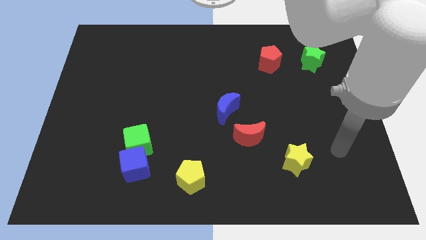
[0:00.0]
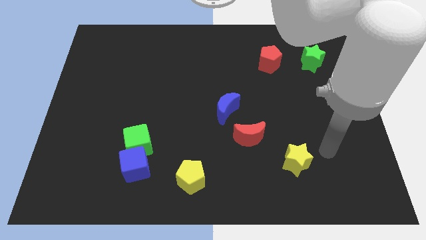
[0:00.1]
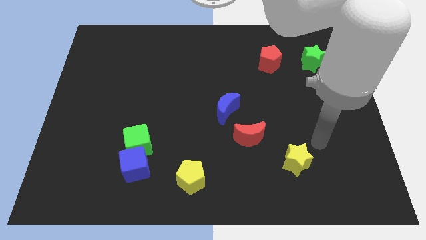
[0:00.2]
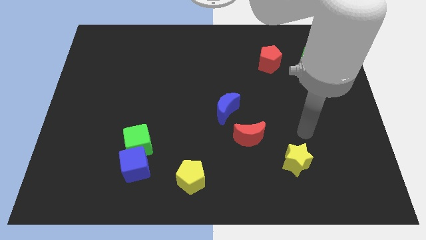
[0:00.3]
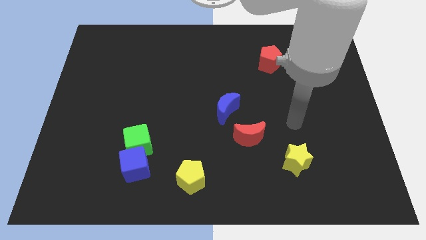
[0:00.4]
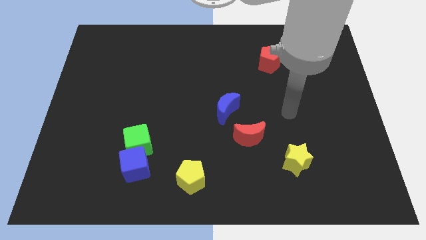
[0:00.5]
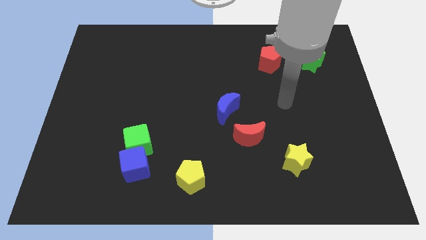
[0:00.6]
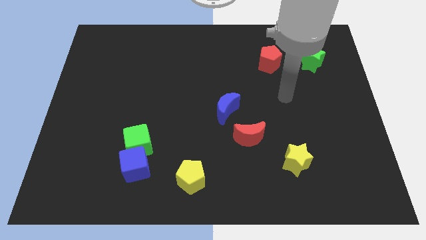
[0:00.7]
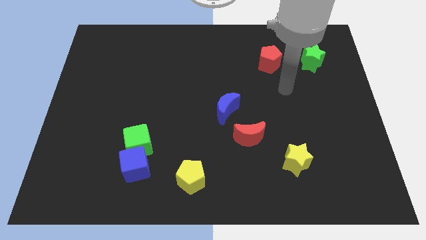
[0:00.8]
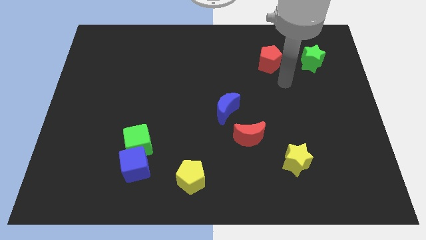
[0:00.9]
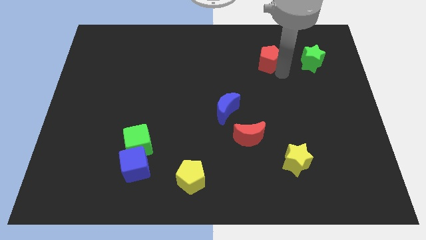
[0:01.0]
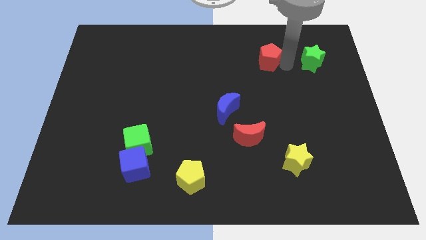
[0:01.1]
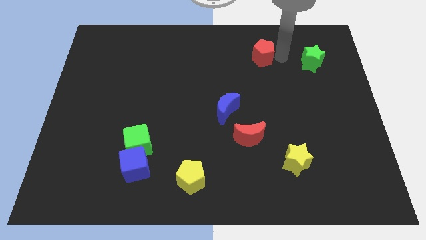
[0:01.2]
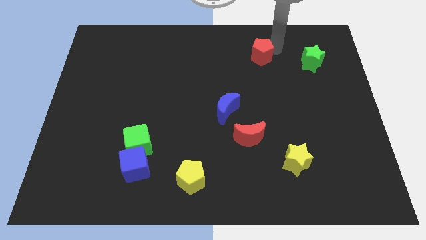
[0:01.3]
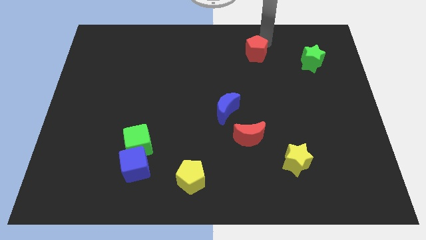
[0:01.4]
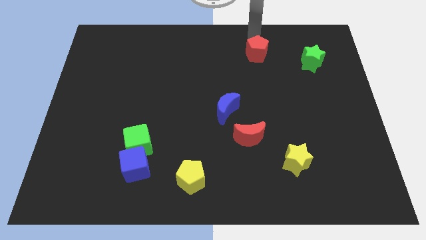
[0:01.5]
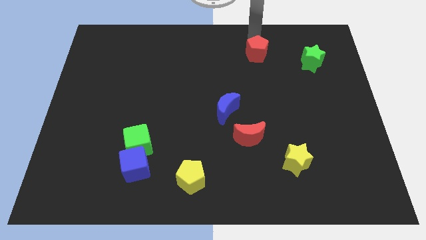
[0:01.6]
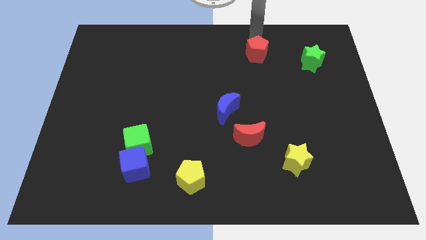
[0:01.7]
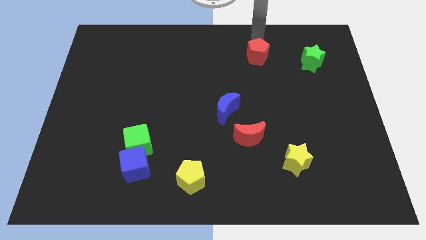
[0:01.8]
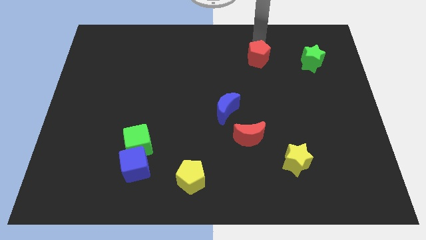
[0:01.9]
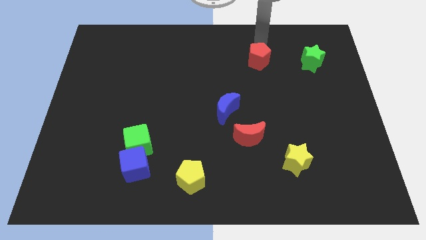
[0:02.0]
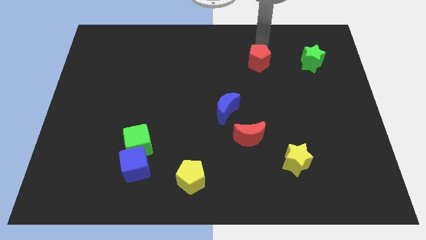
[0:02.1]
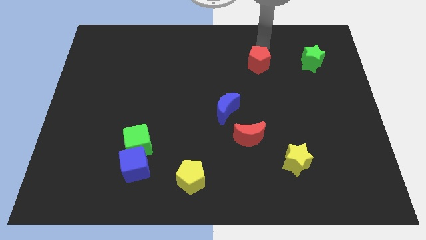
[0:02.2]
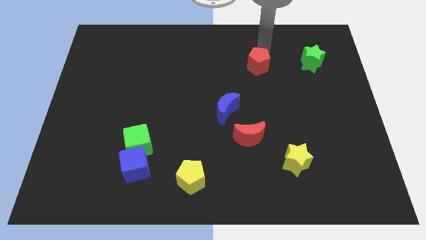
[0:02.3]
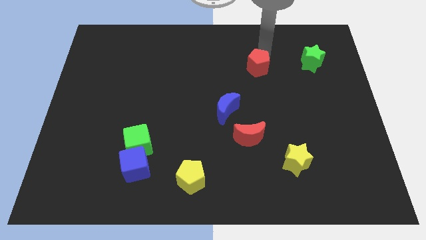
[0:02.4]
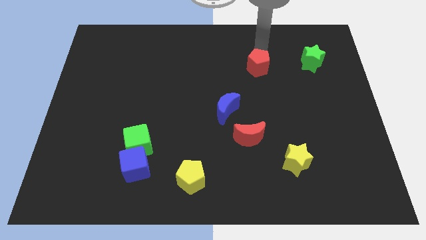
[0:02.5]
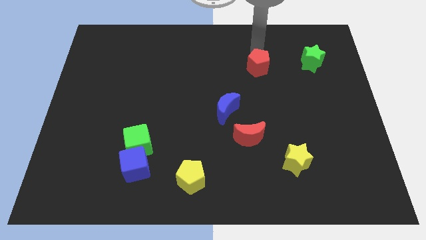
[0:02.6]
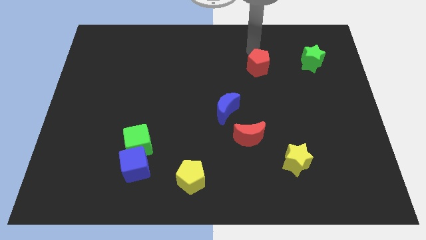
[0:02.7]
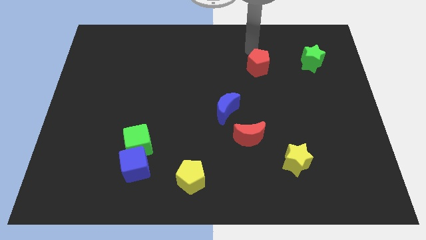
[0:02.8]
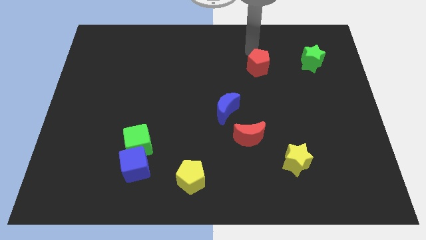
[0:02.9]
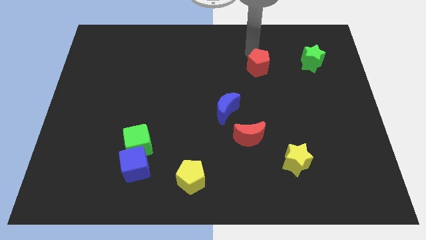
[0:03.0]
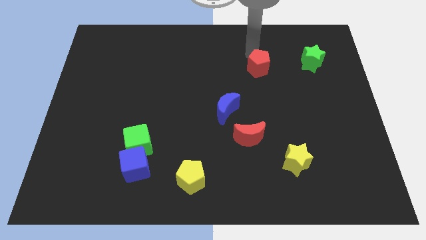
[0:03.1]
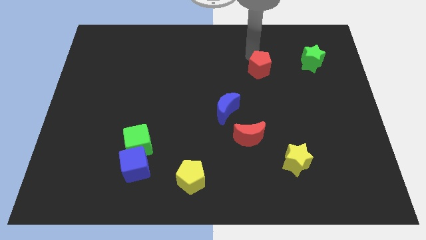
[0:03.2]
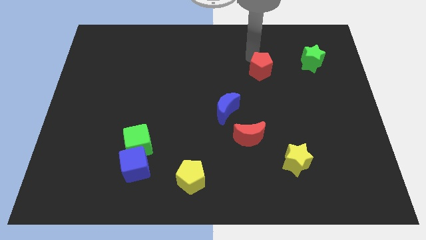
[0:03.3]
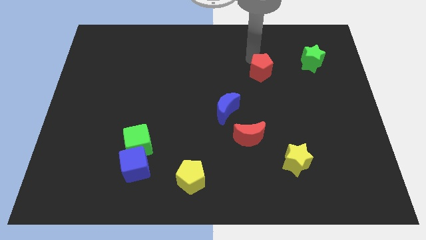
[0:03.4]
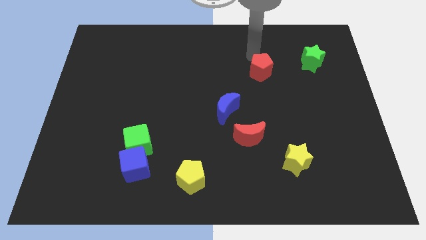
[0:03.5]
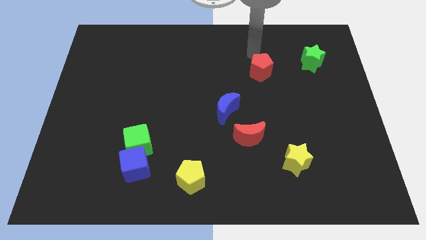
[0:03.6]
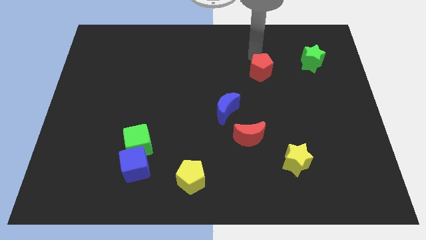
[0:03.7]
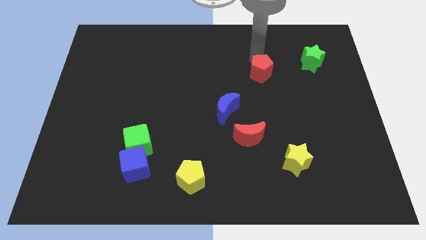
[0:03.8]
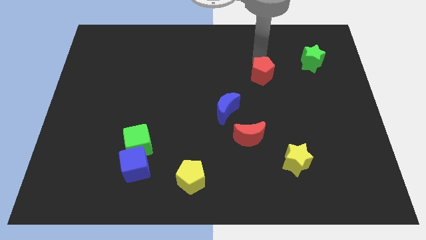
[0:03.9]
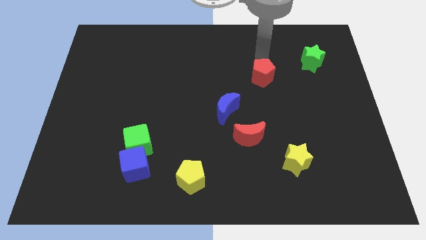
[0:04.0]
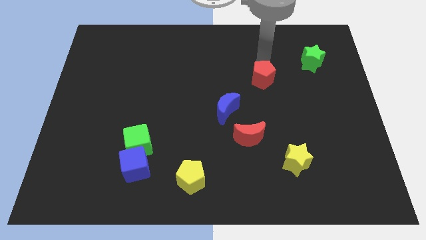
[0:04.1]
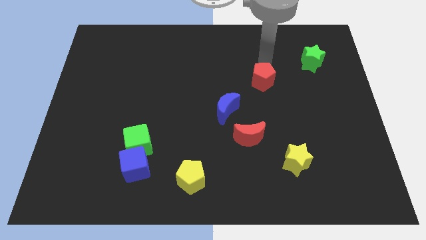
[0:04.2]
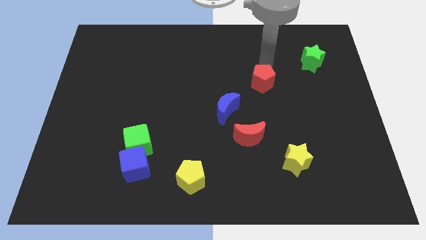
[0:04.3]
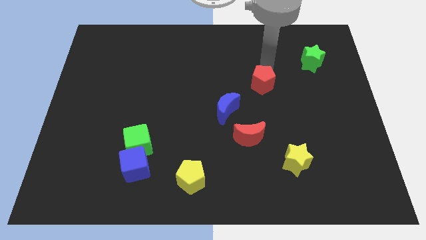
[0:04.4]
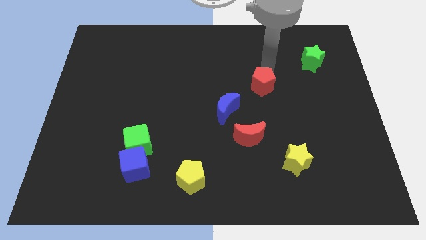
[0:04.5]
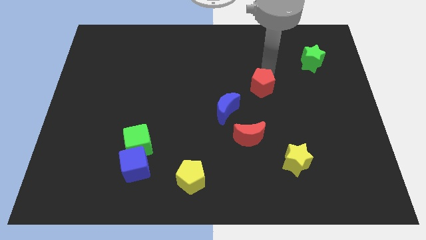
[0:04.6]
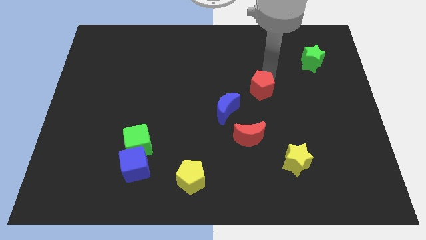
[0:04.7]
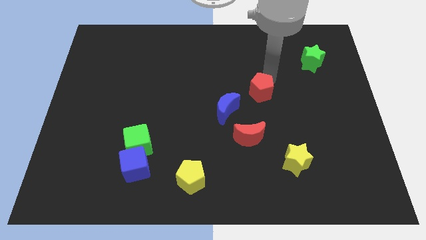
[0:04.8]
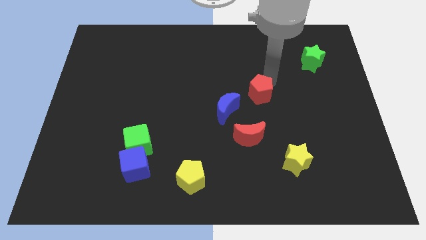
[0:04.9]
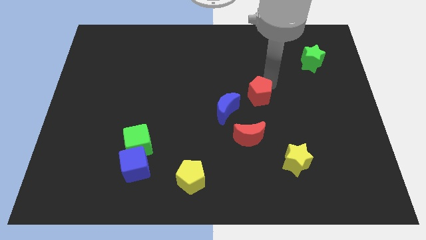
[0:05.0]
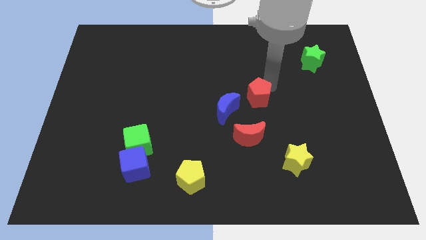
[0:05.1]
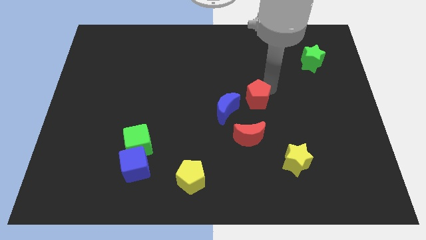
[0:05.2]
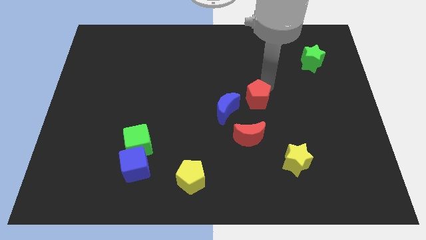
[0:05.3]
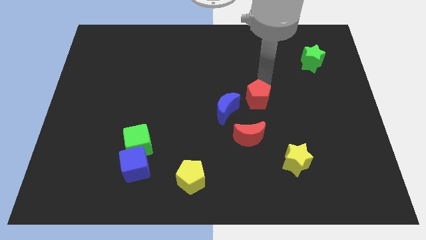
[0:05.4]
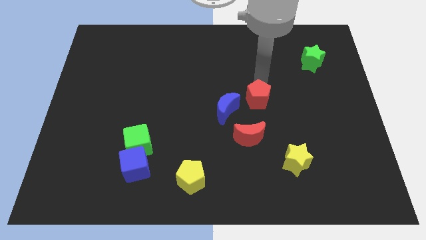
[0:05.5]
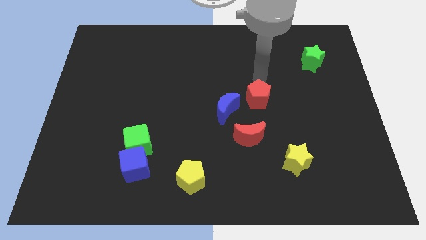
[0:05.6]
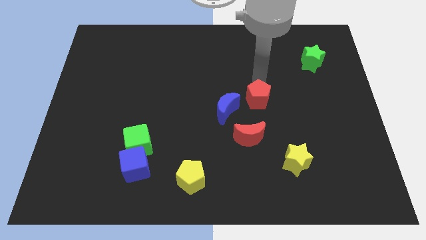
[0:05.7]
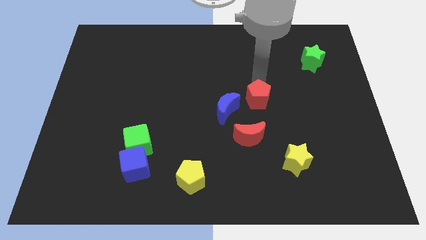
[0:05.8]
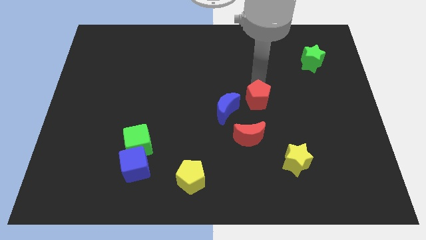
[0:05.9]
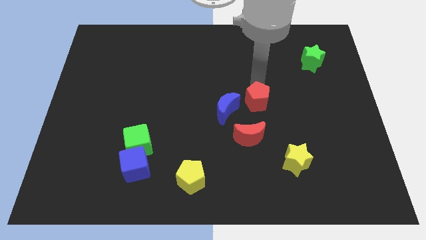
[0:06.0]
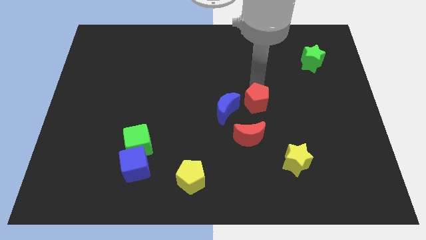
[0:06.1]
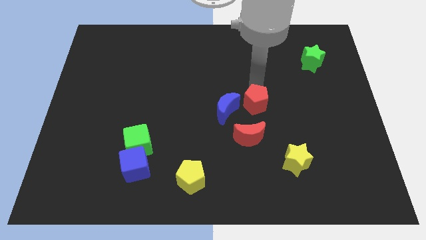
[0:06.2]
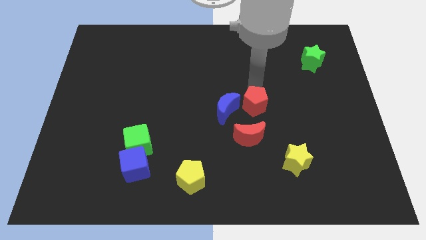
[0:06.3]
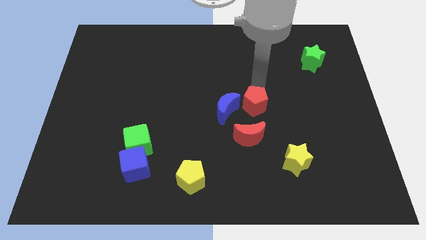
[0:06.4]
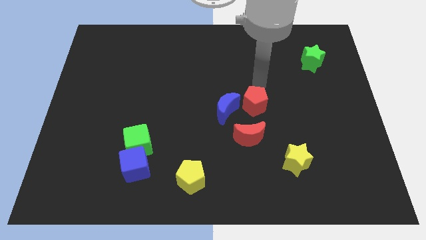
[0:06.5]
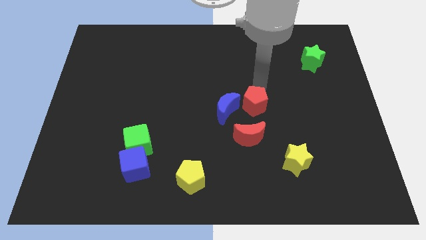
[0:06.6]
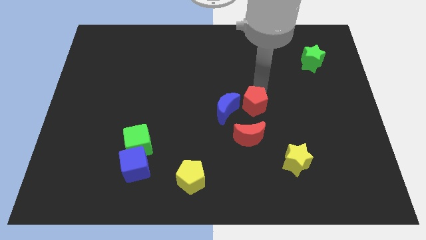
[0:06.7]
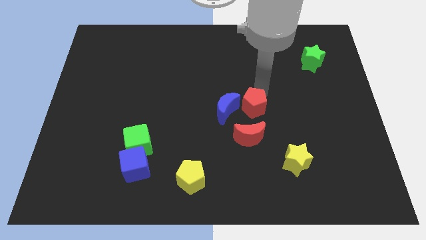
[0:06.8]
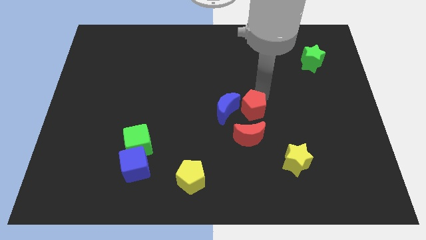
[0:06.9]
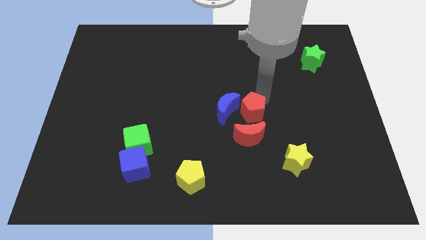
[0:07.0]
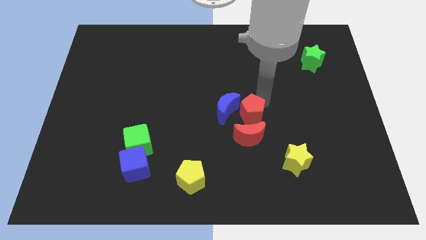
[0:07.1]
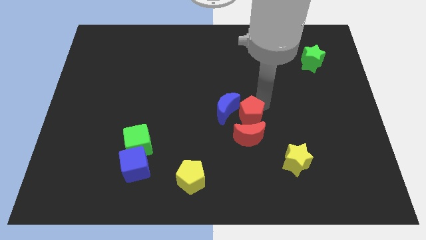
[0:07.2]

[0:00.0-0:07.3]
put the red pentagon to the red moon

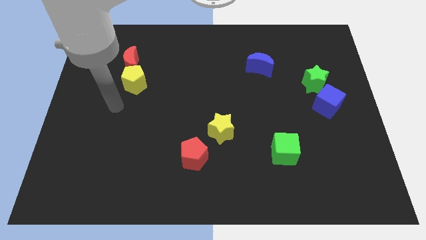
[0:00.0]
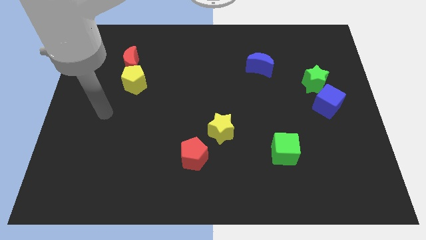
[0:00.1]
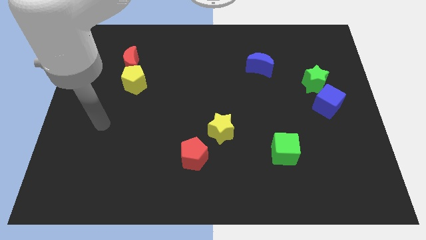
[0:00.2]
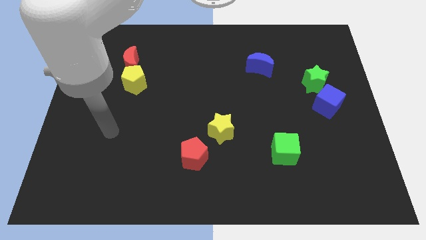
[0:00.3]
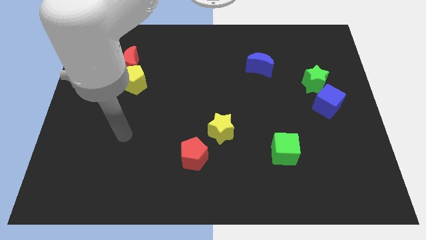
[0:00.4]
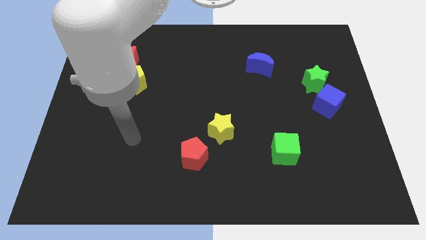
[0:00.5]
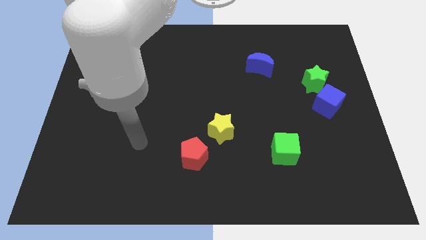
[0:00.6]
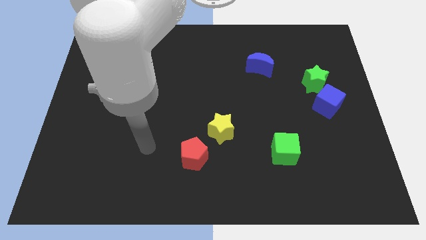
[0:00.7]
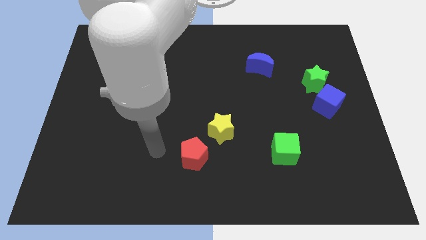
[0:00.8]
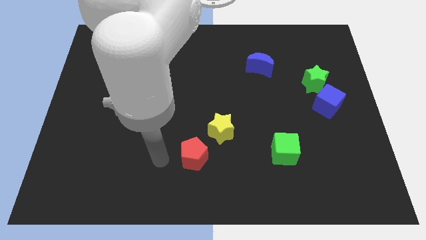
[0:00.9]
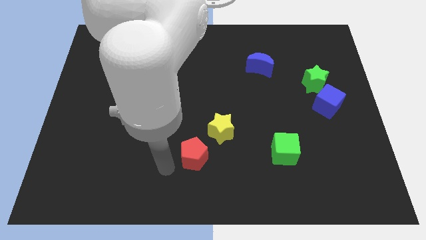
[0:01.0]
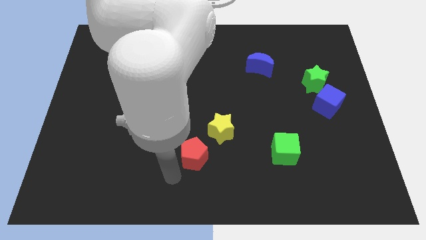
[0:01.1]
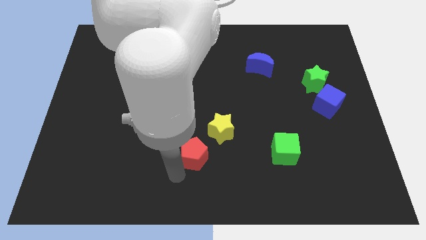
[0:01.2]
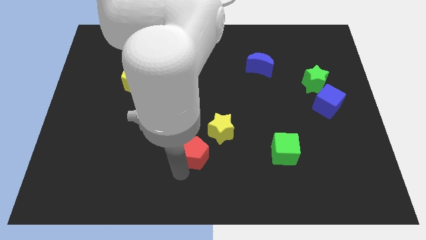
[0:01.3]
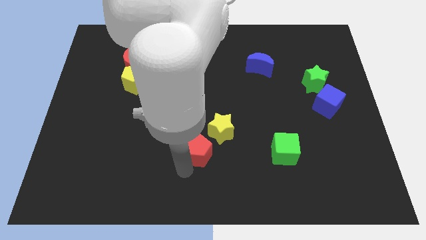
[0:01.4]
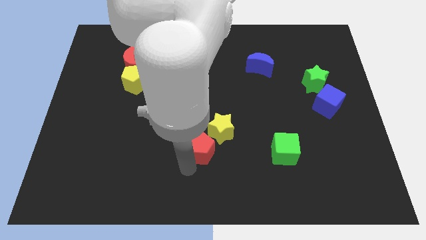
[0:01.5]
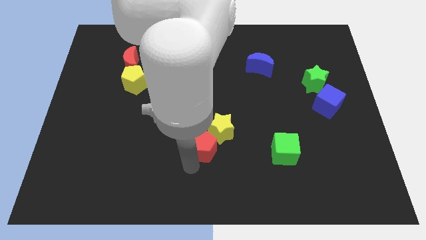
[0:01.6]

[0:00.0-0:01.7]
push the red pentagon next to the yellow star
